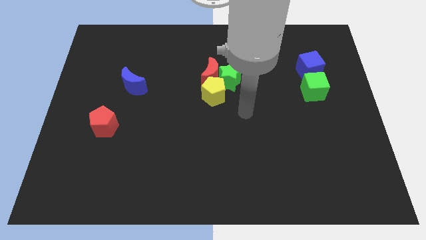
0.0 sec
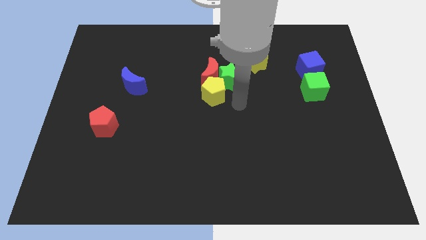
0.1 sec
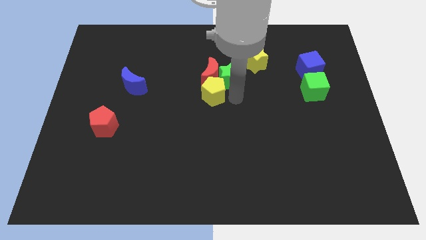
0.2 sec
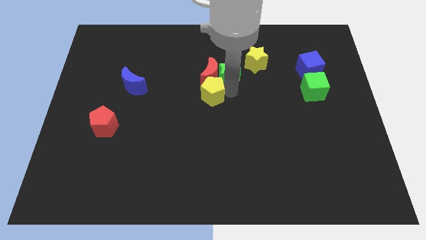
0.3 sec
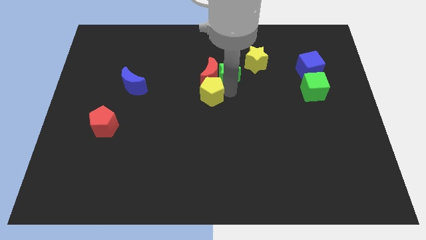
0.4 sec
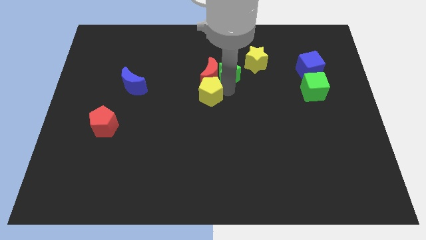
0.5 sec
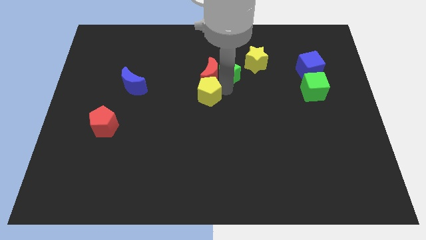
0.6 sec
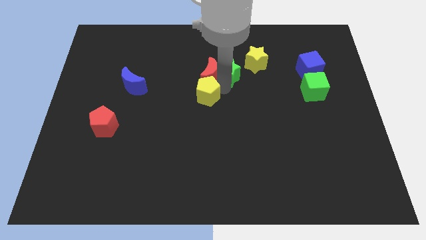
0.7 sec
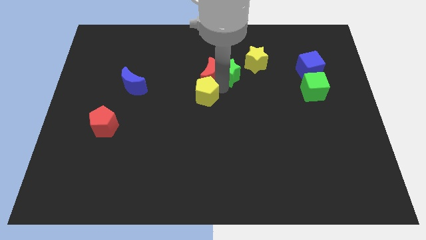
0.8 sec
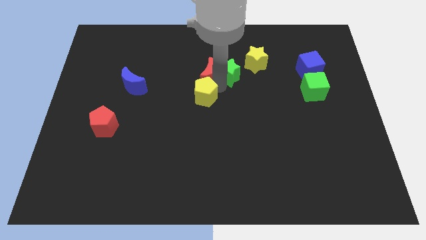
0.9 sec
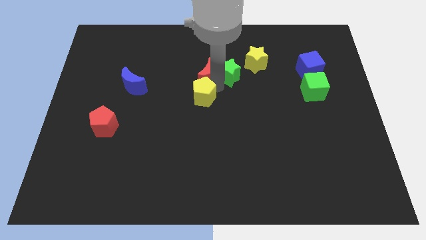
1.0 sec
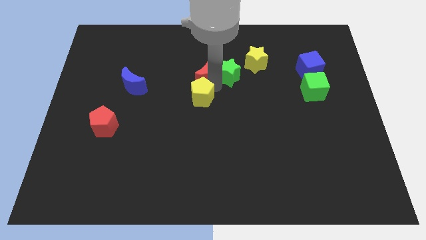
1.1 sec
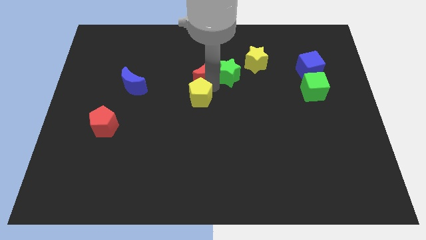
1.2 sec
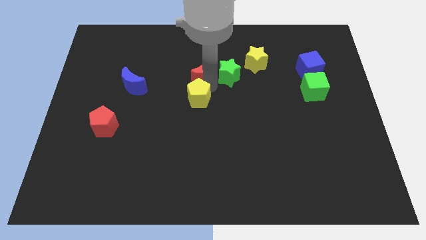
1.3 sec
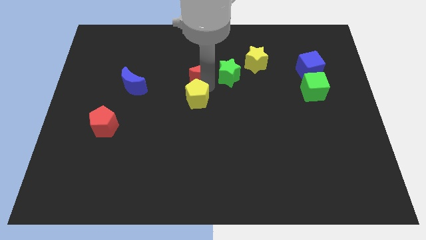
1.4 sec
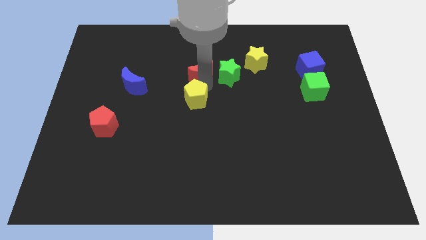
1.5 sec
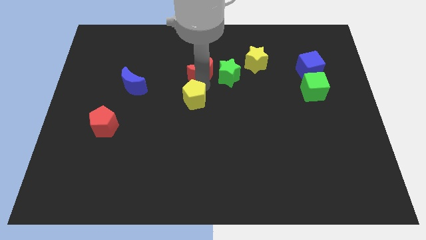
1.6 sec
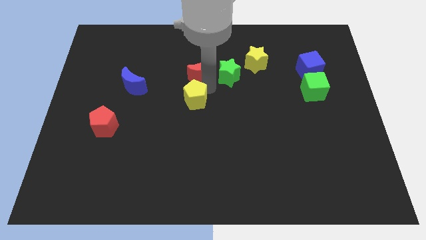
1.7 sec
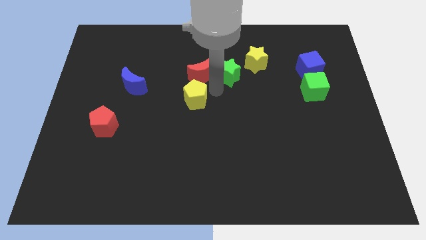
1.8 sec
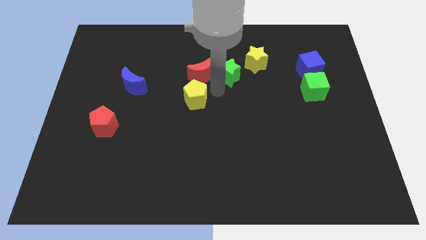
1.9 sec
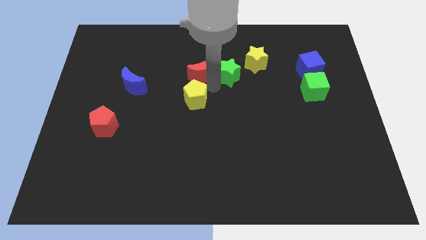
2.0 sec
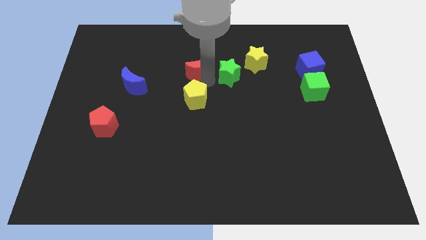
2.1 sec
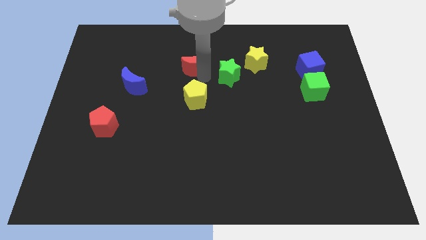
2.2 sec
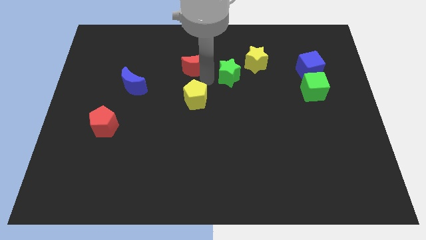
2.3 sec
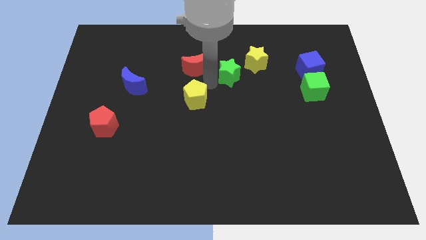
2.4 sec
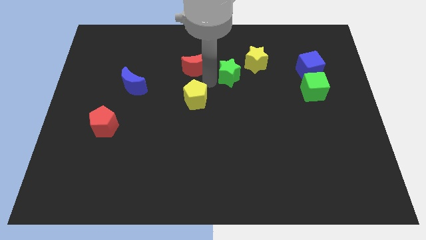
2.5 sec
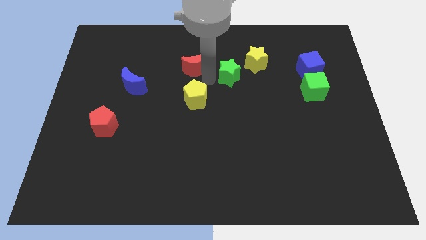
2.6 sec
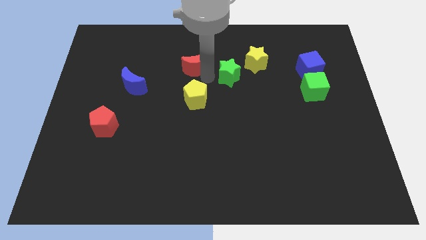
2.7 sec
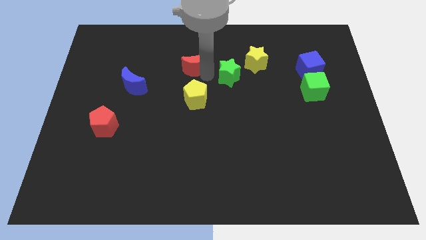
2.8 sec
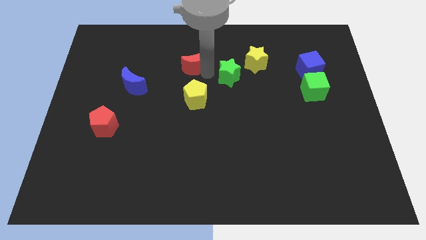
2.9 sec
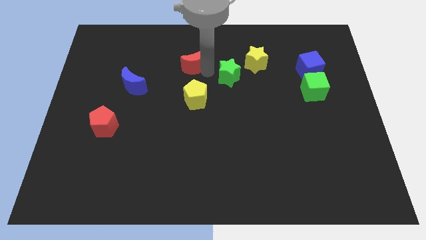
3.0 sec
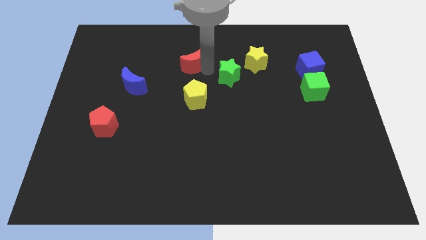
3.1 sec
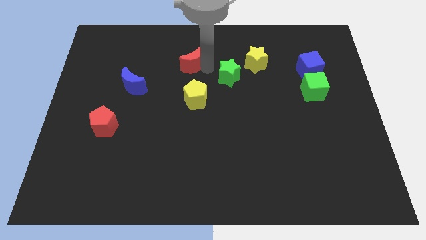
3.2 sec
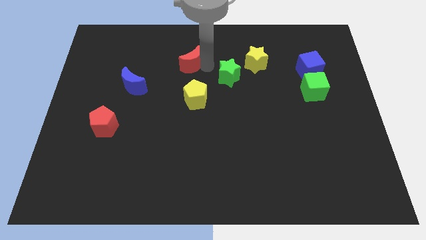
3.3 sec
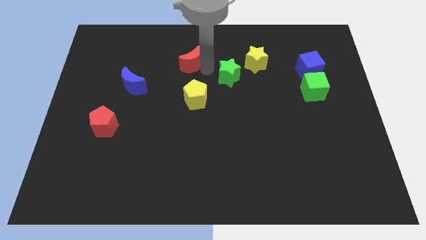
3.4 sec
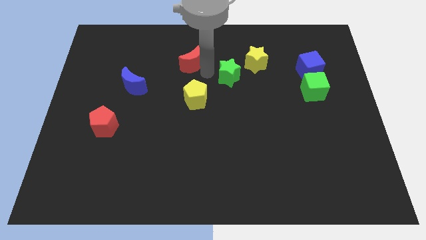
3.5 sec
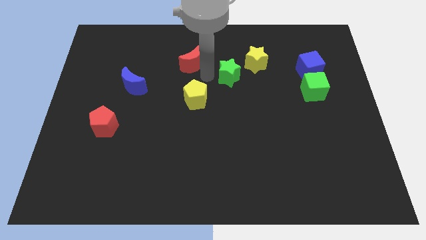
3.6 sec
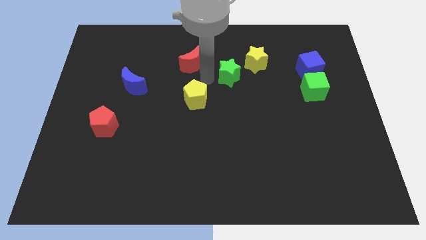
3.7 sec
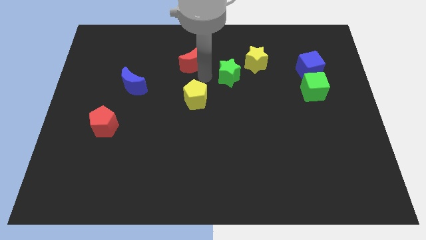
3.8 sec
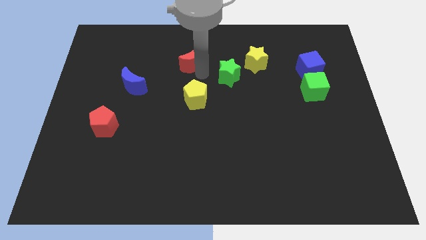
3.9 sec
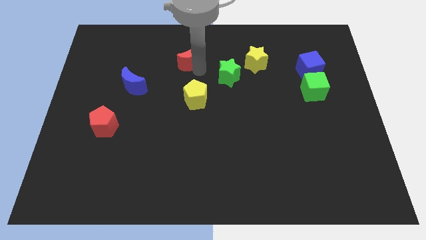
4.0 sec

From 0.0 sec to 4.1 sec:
separate the red moon from the green star and yellow pentagon

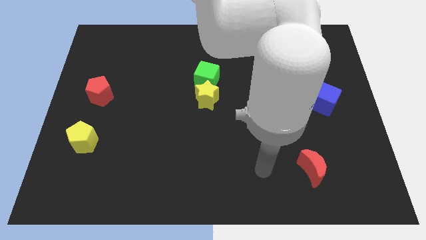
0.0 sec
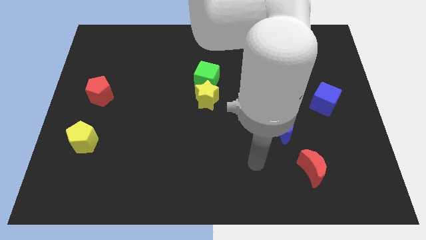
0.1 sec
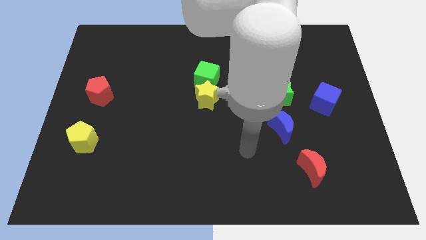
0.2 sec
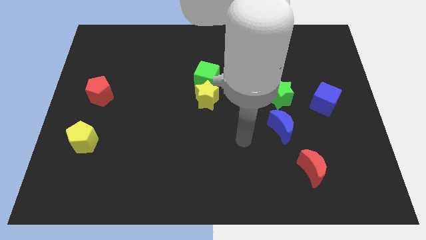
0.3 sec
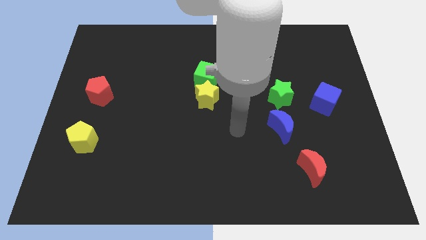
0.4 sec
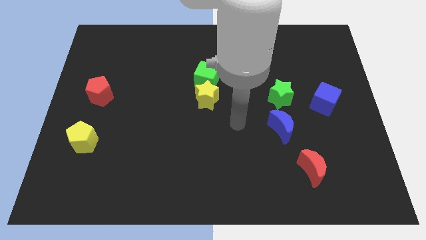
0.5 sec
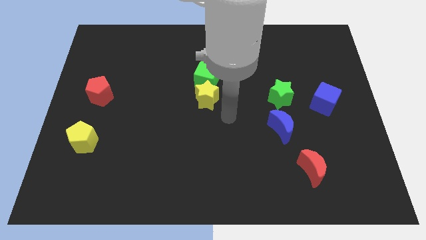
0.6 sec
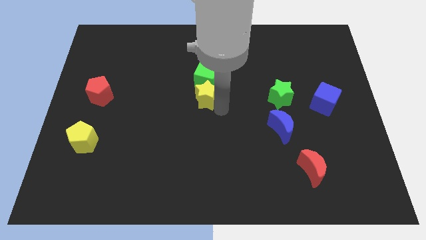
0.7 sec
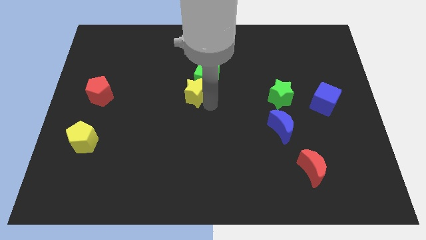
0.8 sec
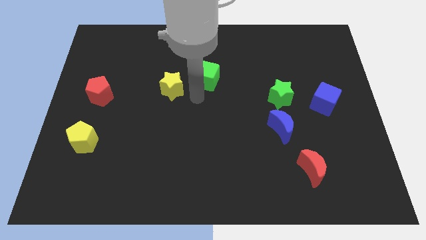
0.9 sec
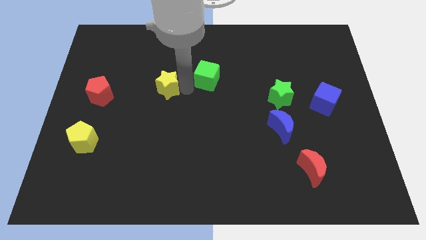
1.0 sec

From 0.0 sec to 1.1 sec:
move the green cube away from the yellow star

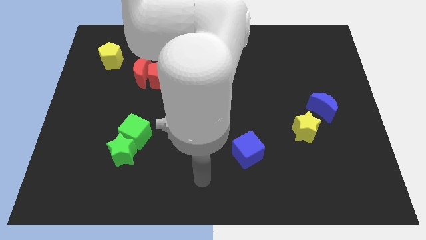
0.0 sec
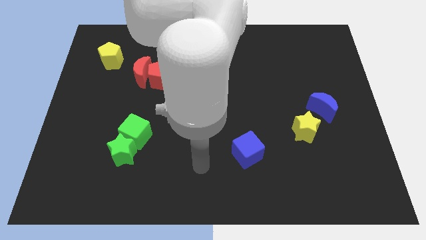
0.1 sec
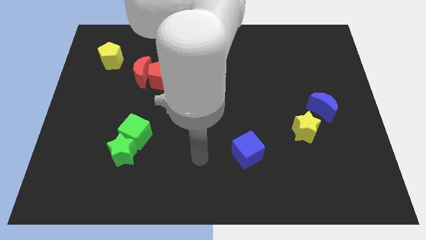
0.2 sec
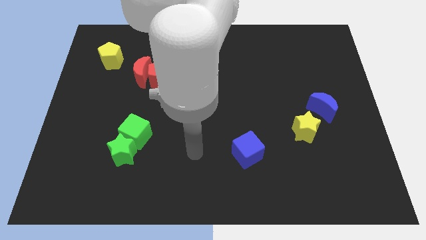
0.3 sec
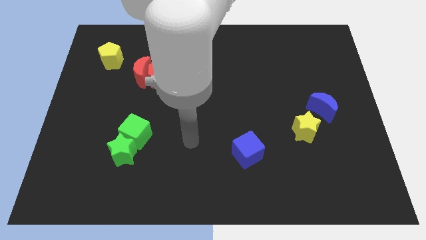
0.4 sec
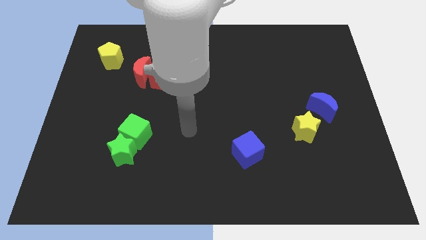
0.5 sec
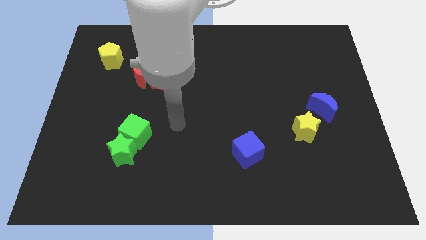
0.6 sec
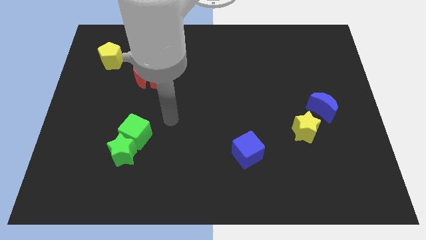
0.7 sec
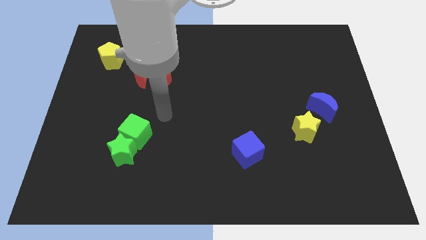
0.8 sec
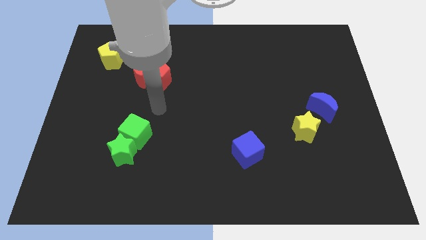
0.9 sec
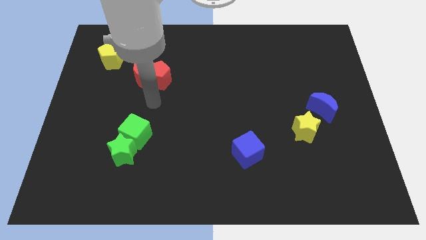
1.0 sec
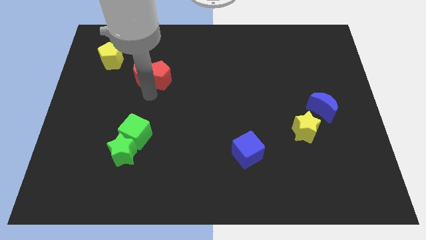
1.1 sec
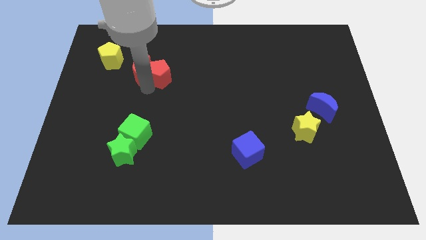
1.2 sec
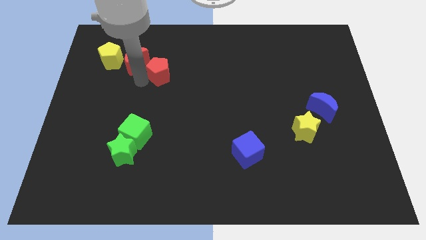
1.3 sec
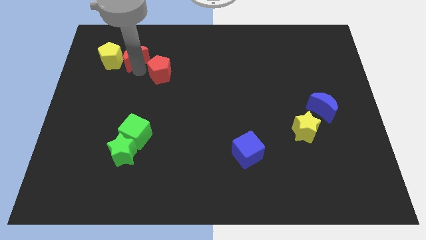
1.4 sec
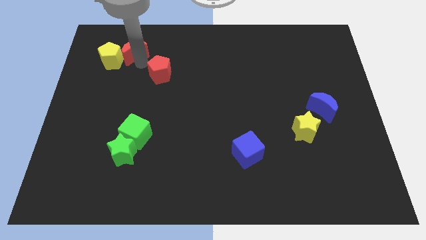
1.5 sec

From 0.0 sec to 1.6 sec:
pull the red pentagon apart from the red moon

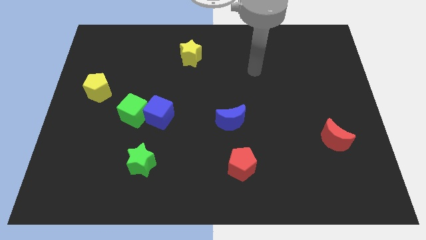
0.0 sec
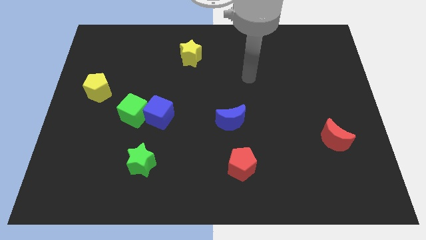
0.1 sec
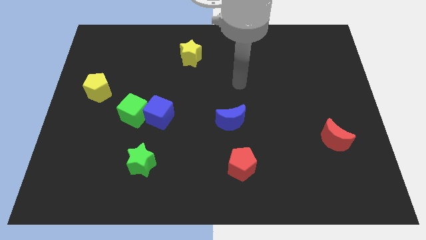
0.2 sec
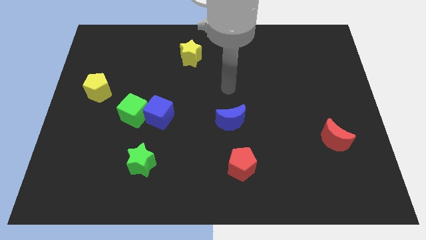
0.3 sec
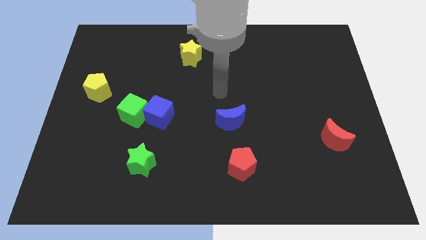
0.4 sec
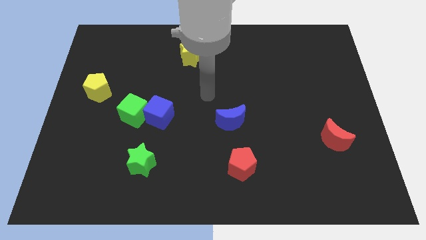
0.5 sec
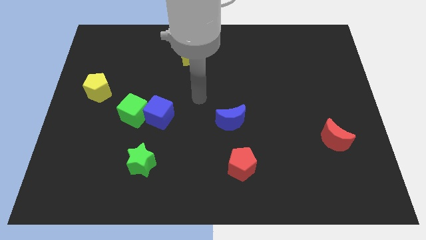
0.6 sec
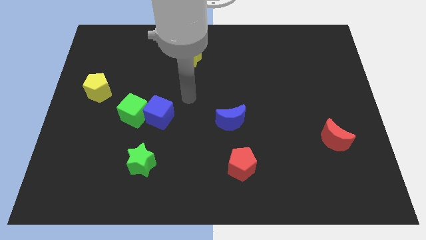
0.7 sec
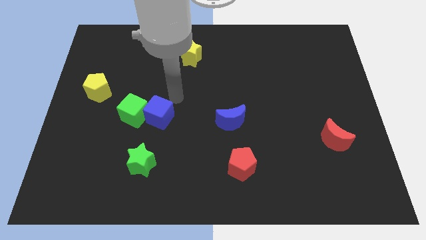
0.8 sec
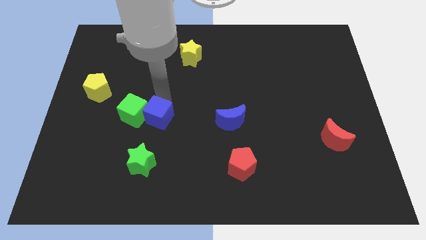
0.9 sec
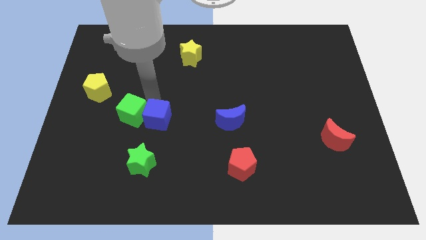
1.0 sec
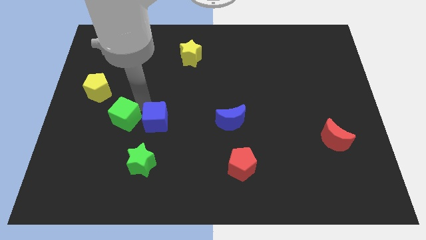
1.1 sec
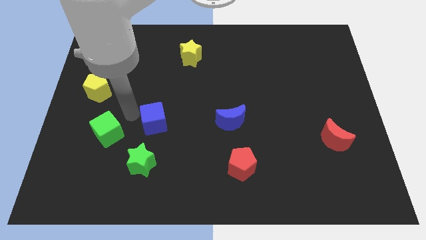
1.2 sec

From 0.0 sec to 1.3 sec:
pull the blue cube apart from the green cube

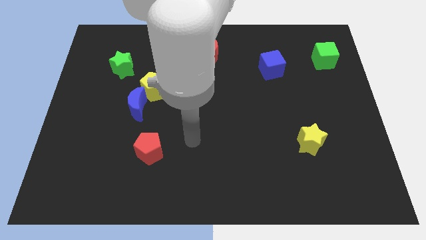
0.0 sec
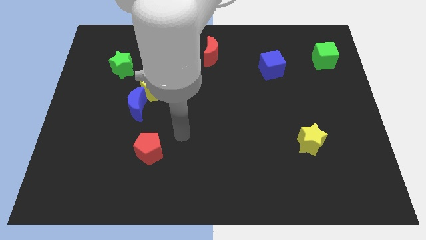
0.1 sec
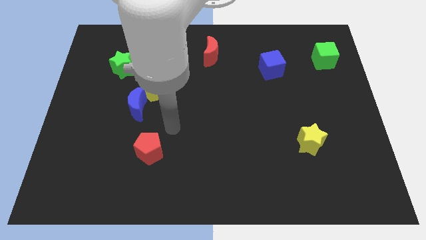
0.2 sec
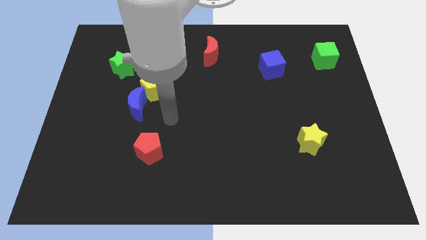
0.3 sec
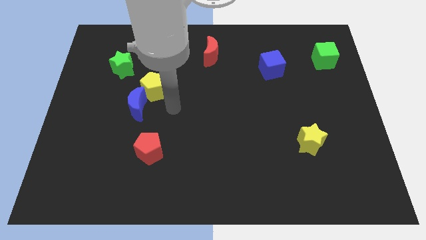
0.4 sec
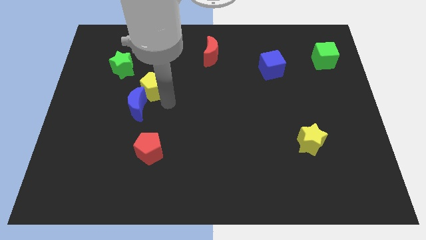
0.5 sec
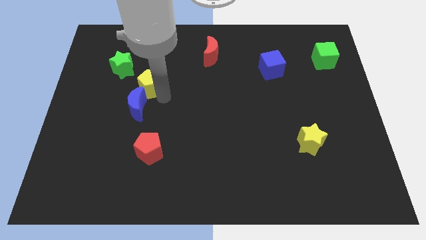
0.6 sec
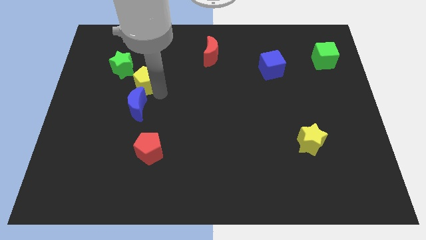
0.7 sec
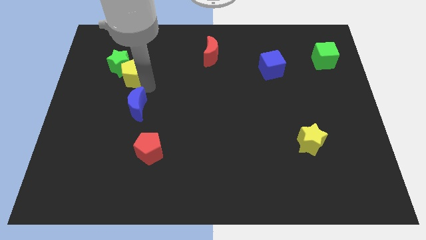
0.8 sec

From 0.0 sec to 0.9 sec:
separate the blue moon from the yellow pentagon

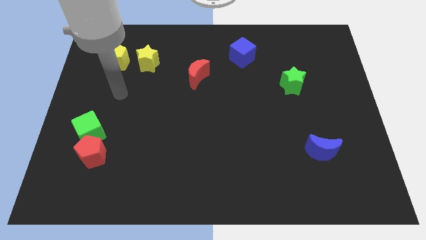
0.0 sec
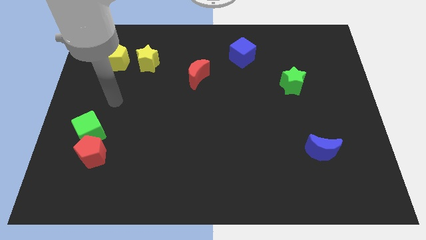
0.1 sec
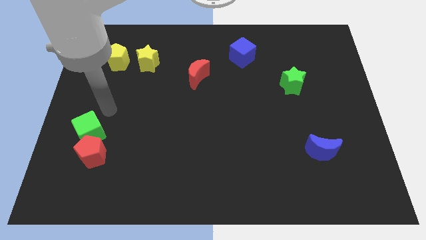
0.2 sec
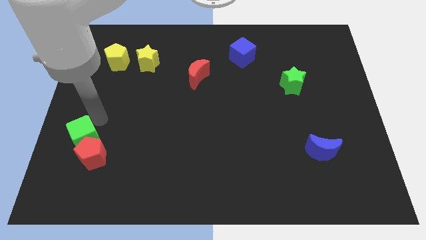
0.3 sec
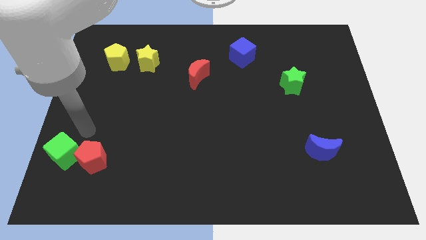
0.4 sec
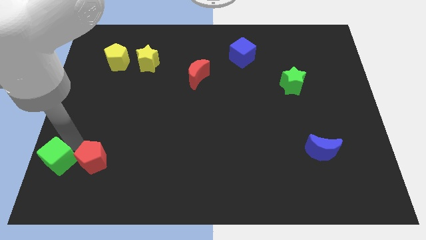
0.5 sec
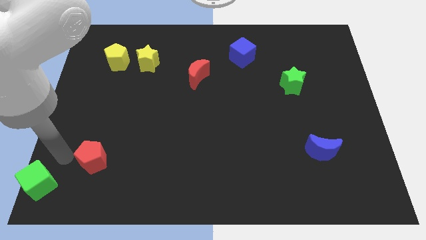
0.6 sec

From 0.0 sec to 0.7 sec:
move the red pentagon away from the green cube
